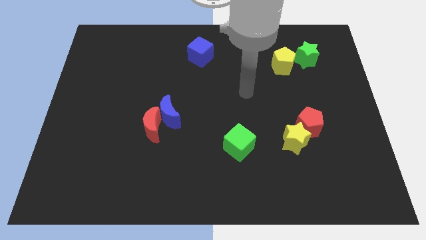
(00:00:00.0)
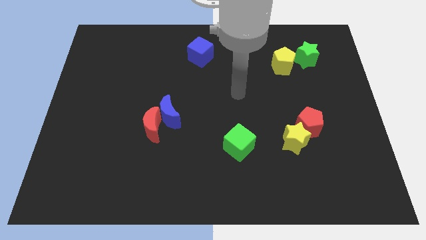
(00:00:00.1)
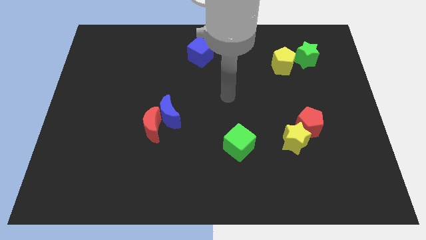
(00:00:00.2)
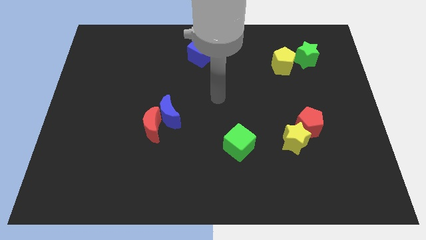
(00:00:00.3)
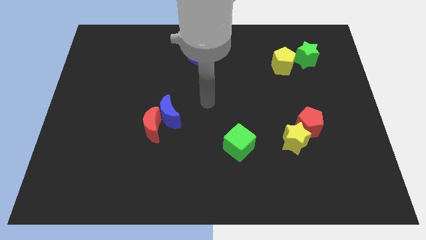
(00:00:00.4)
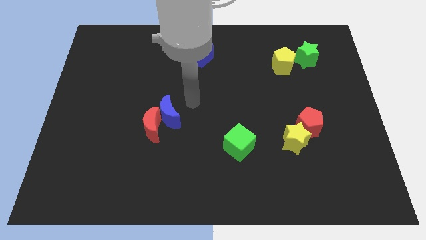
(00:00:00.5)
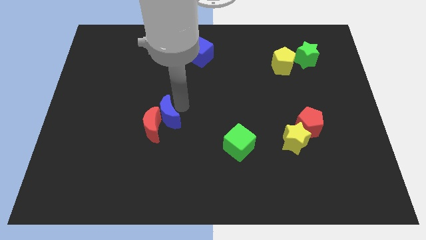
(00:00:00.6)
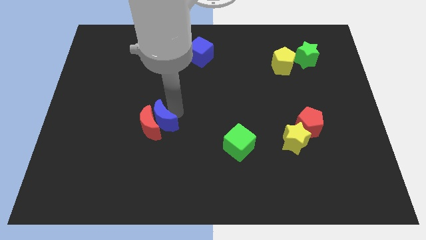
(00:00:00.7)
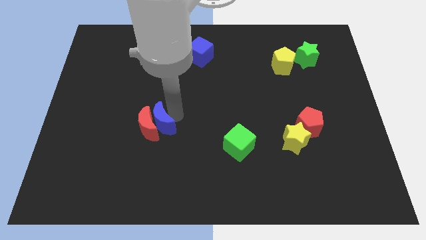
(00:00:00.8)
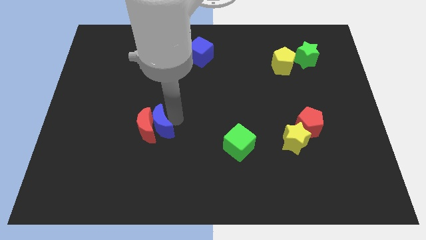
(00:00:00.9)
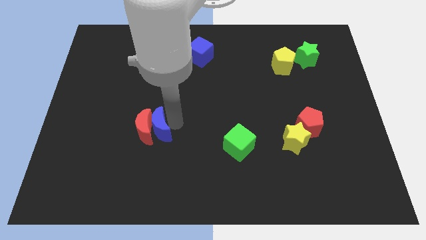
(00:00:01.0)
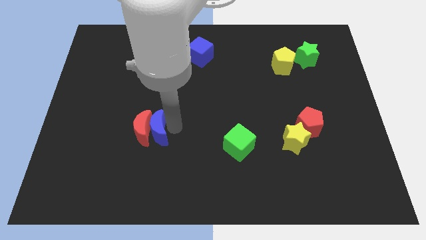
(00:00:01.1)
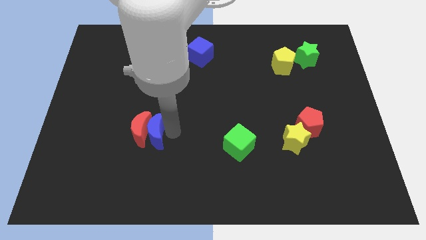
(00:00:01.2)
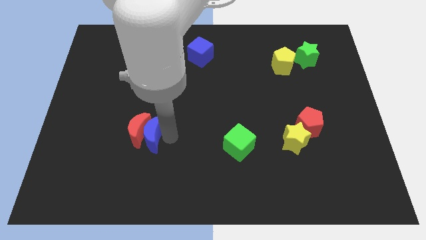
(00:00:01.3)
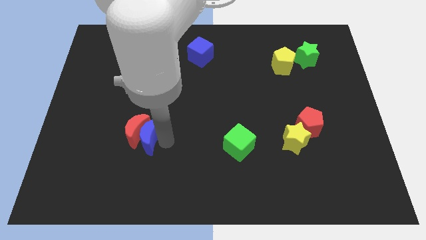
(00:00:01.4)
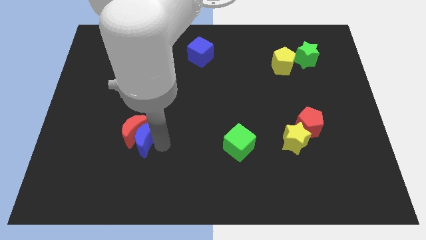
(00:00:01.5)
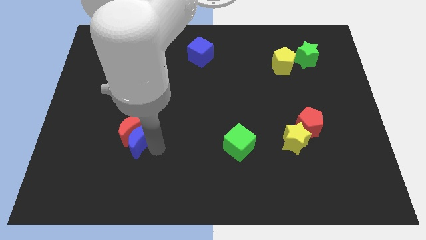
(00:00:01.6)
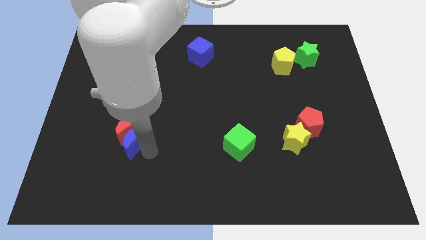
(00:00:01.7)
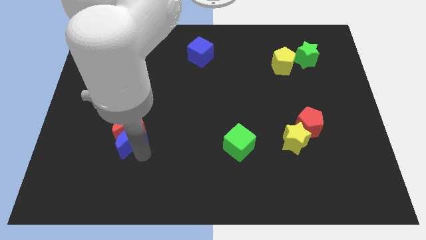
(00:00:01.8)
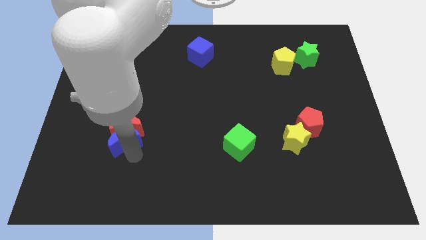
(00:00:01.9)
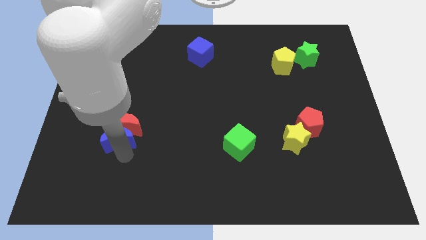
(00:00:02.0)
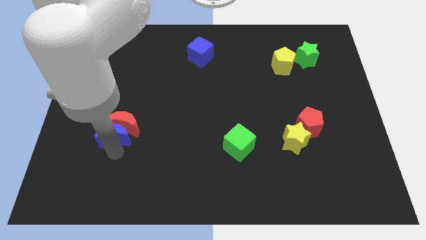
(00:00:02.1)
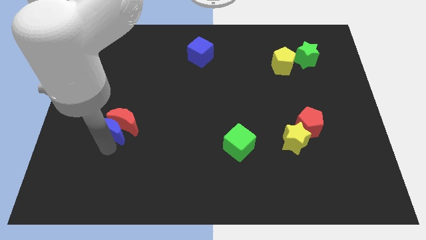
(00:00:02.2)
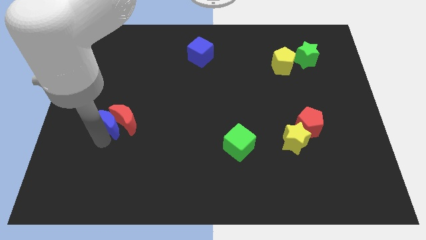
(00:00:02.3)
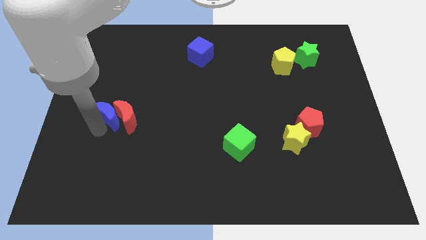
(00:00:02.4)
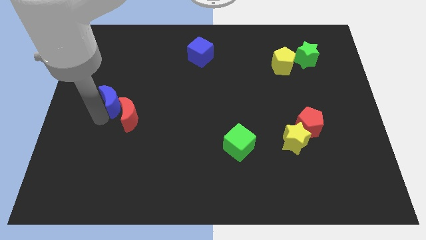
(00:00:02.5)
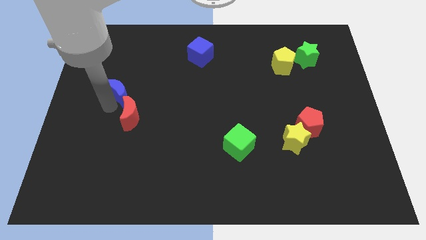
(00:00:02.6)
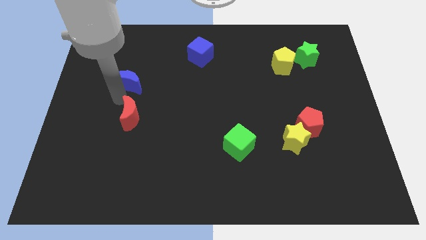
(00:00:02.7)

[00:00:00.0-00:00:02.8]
separate the red moon from the blue moon

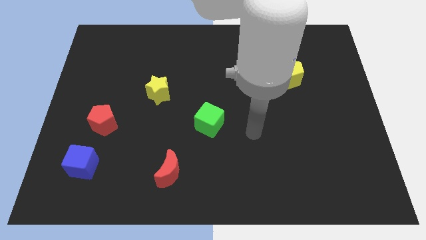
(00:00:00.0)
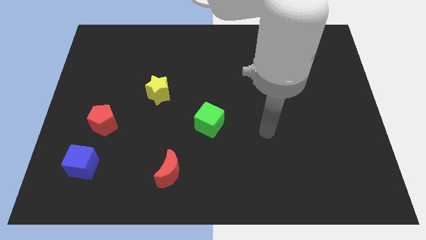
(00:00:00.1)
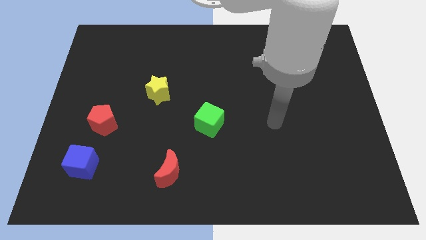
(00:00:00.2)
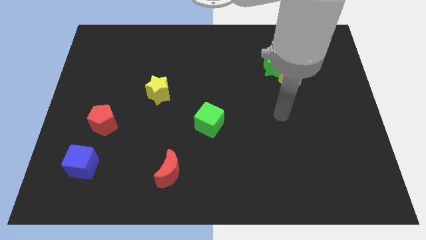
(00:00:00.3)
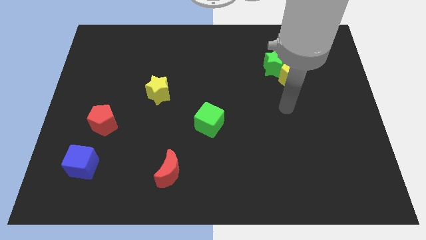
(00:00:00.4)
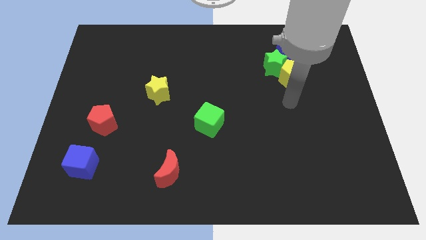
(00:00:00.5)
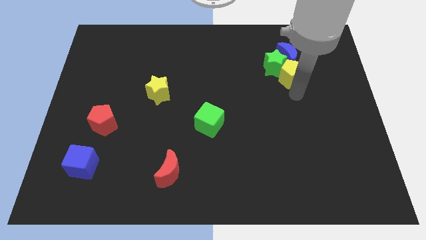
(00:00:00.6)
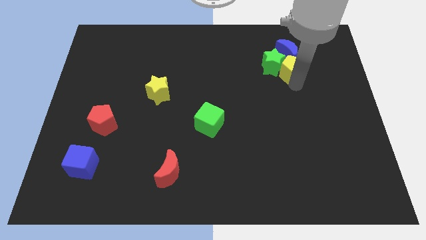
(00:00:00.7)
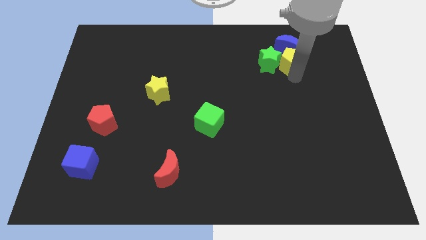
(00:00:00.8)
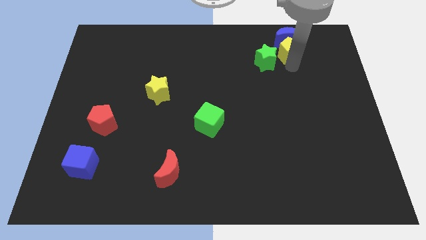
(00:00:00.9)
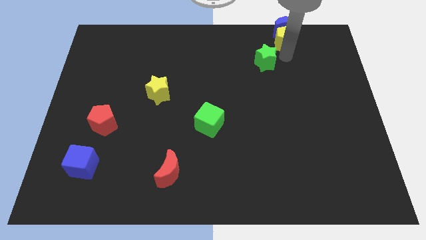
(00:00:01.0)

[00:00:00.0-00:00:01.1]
move the green star away from the blue moon and yellow pentagon

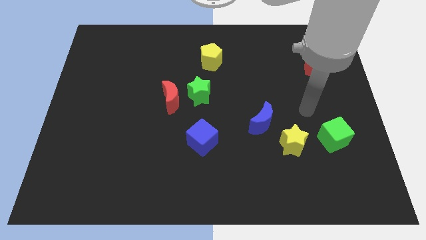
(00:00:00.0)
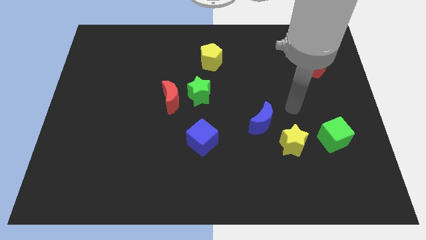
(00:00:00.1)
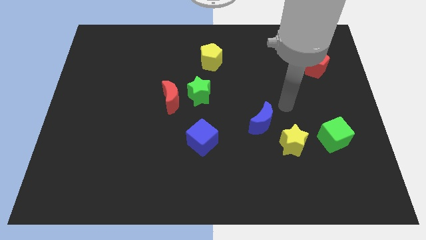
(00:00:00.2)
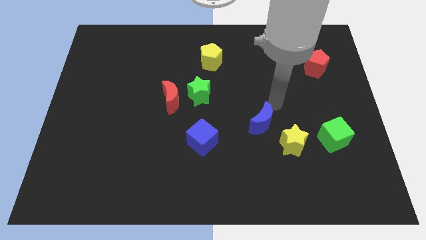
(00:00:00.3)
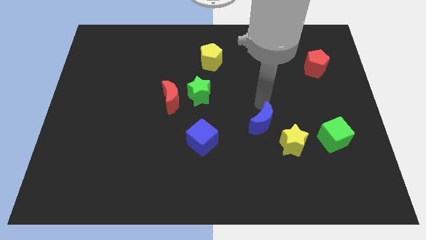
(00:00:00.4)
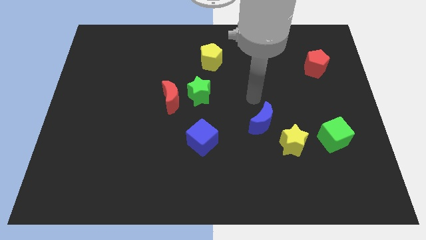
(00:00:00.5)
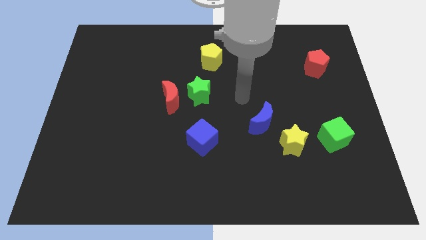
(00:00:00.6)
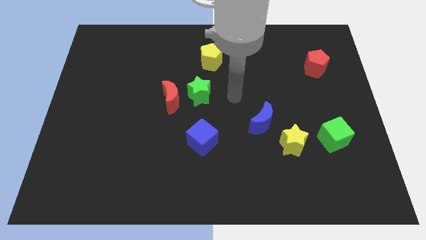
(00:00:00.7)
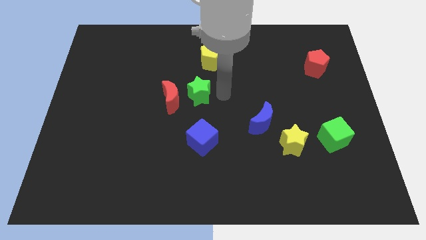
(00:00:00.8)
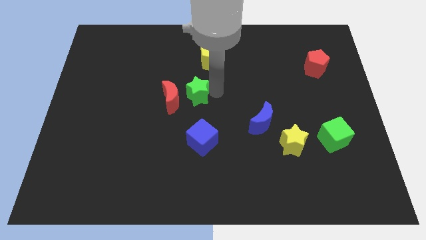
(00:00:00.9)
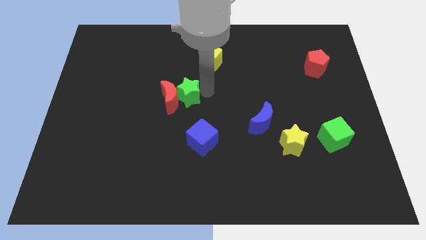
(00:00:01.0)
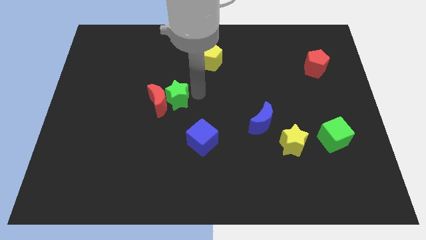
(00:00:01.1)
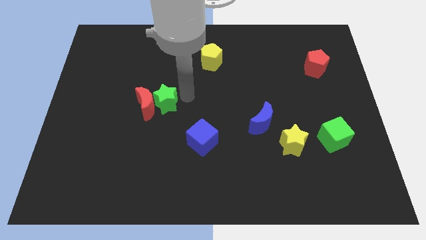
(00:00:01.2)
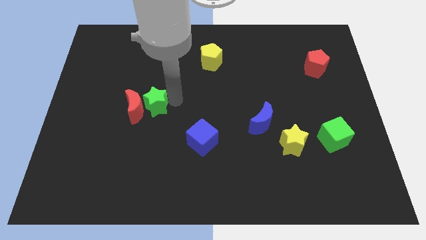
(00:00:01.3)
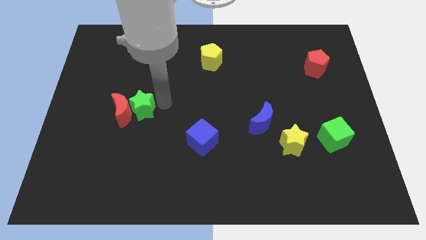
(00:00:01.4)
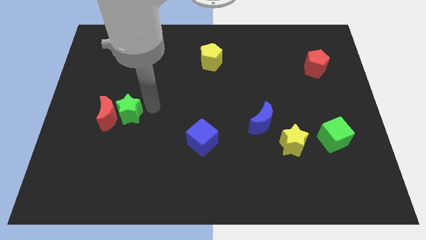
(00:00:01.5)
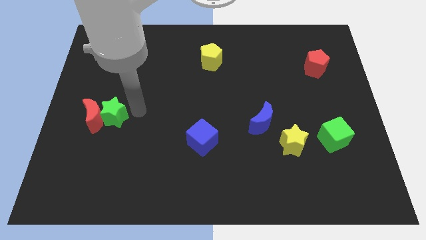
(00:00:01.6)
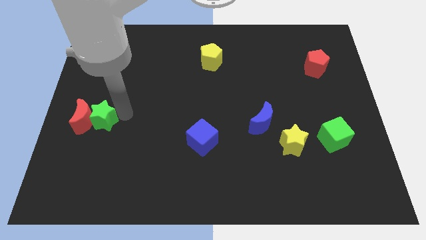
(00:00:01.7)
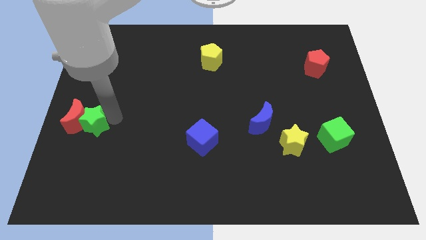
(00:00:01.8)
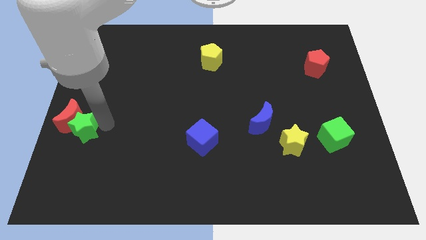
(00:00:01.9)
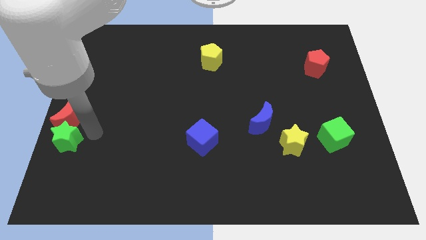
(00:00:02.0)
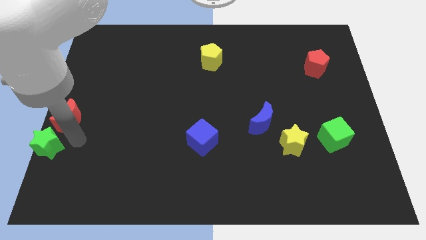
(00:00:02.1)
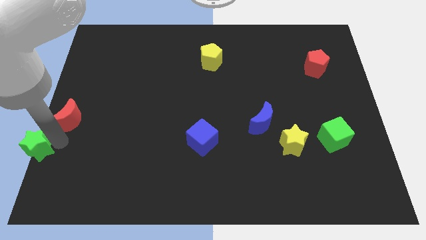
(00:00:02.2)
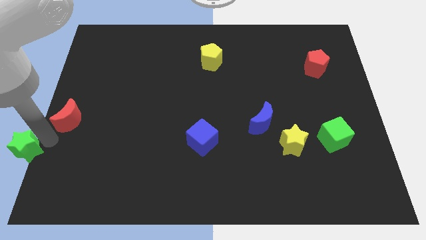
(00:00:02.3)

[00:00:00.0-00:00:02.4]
separate the red moon from the green star

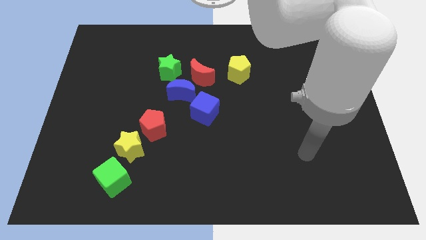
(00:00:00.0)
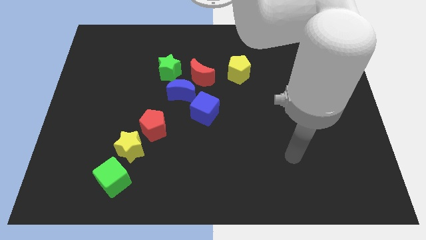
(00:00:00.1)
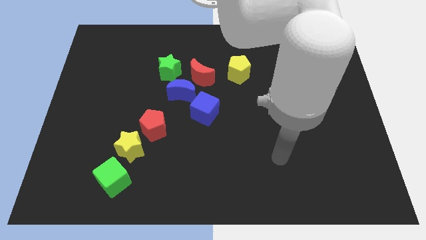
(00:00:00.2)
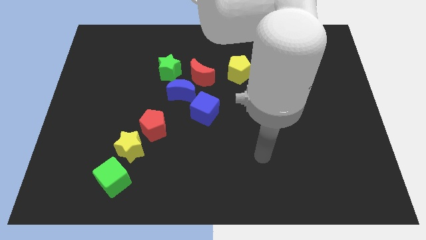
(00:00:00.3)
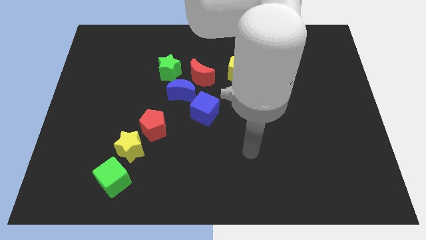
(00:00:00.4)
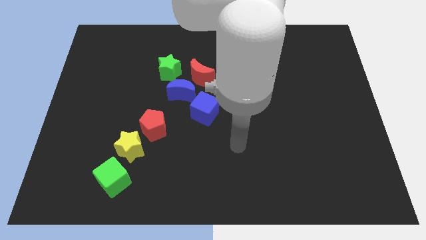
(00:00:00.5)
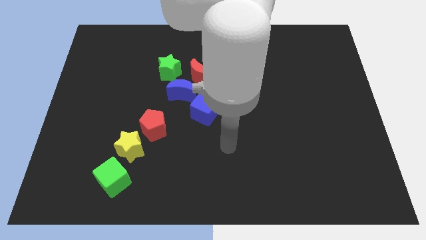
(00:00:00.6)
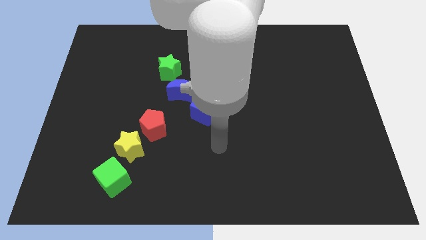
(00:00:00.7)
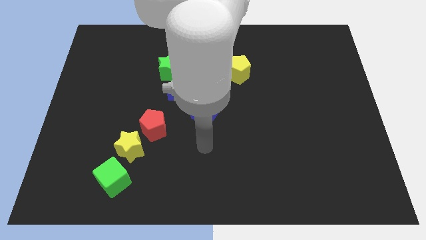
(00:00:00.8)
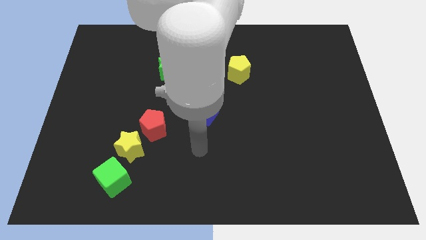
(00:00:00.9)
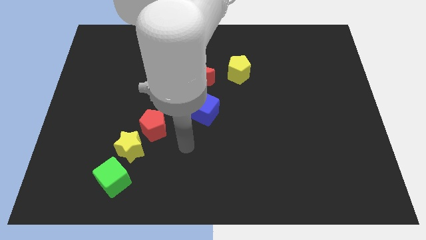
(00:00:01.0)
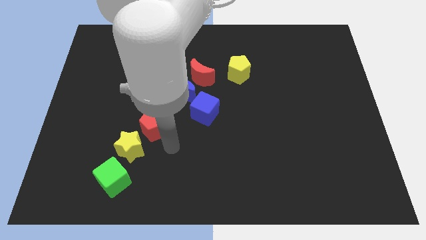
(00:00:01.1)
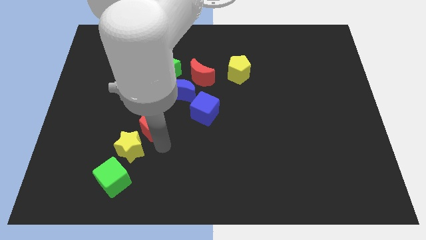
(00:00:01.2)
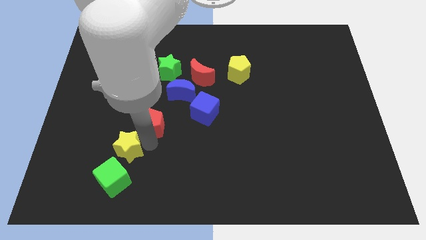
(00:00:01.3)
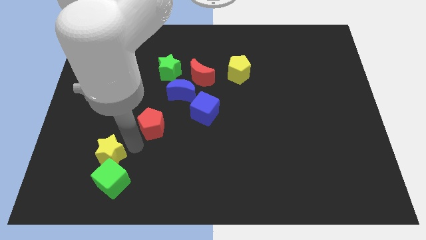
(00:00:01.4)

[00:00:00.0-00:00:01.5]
move the red pentagon away from the yellow star

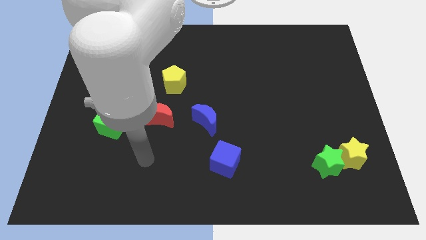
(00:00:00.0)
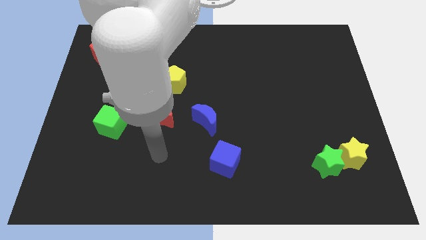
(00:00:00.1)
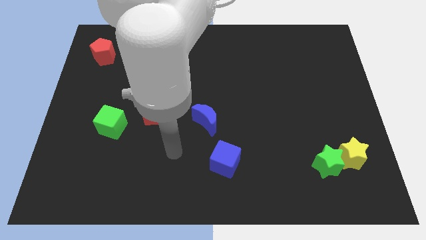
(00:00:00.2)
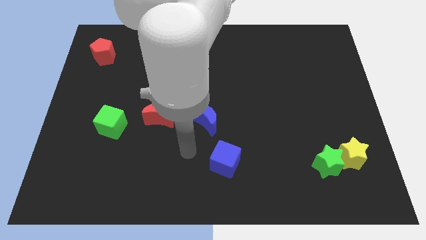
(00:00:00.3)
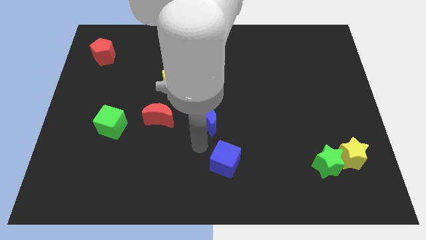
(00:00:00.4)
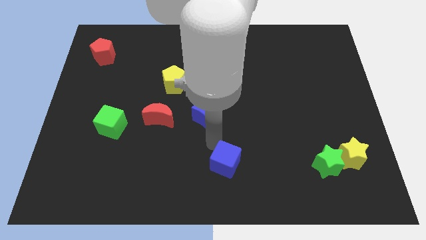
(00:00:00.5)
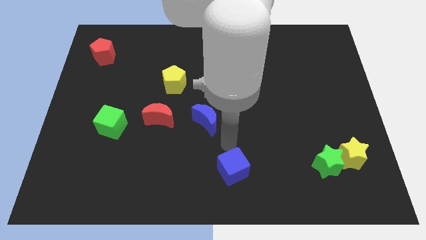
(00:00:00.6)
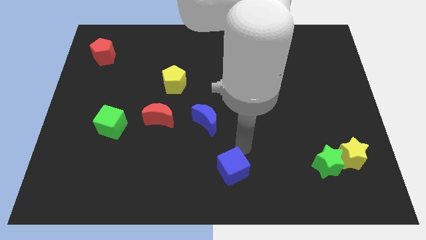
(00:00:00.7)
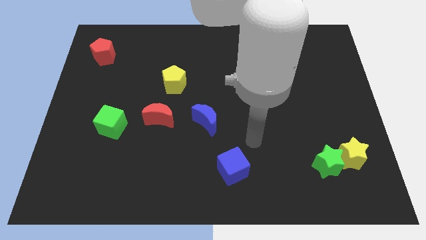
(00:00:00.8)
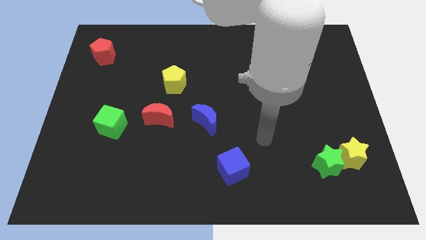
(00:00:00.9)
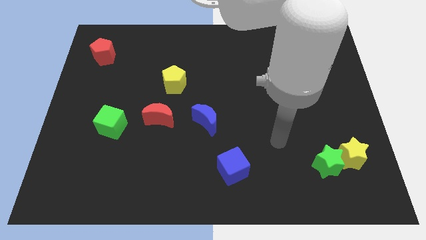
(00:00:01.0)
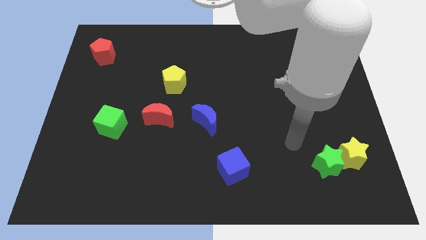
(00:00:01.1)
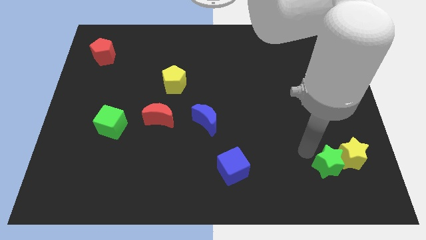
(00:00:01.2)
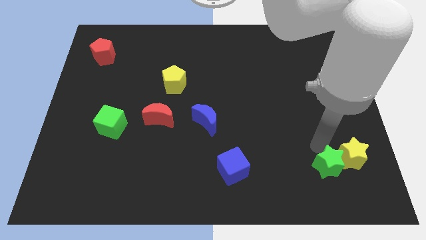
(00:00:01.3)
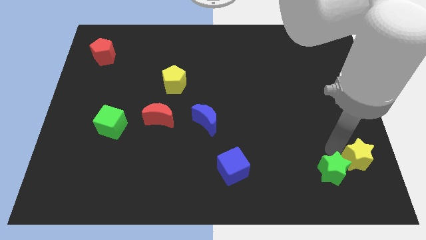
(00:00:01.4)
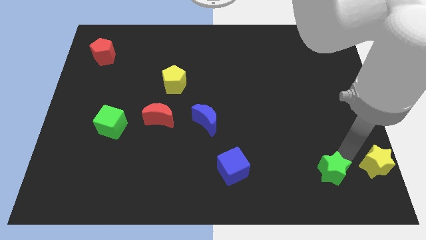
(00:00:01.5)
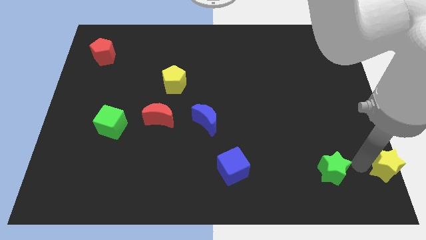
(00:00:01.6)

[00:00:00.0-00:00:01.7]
separate the green star from the yellow star
